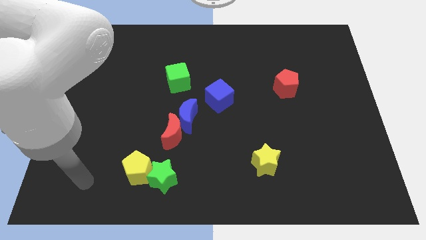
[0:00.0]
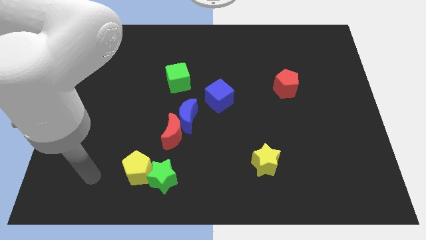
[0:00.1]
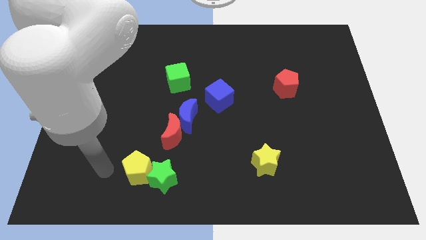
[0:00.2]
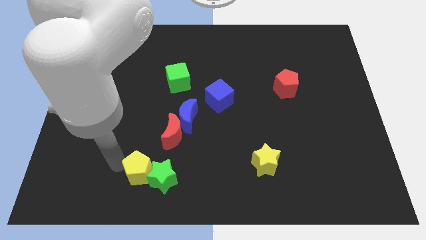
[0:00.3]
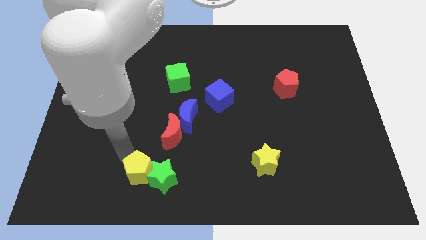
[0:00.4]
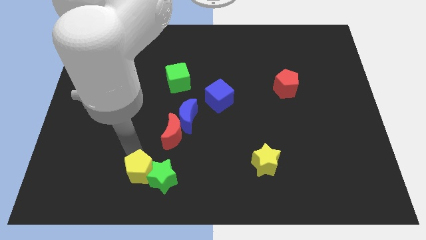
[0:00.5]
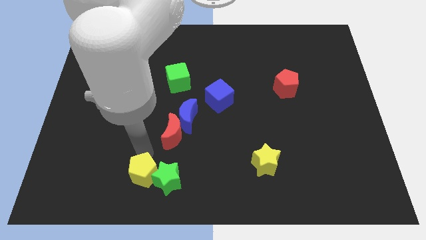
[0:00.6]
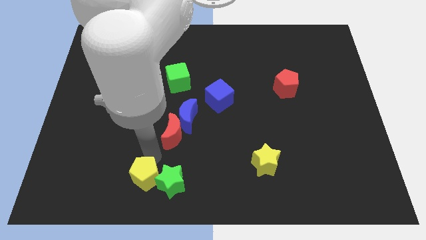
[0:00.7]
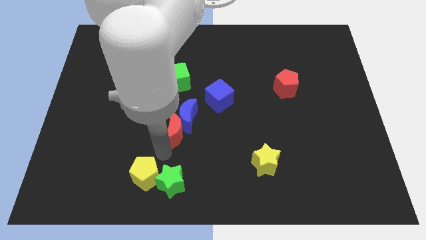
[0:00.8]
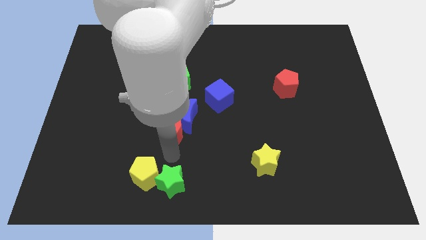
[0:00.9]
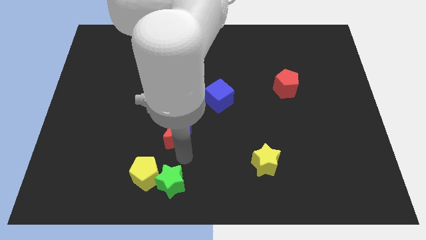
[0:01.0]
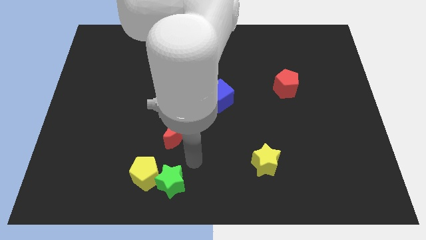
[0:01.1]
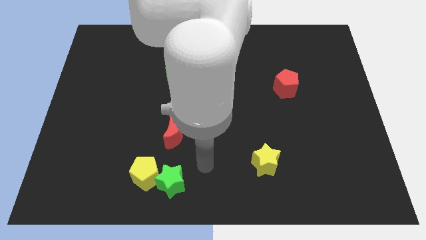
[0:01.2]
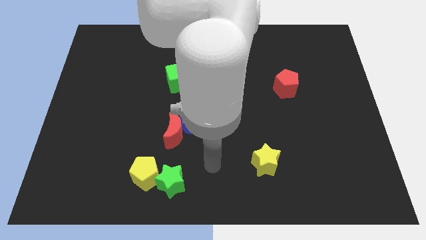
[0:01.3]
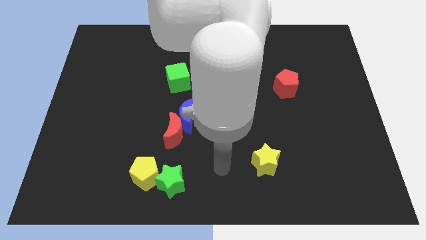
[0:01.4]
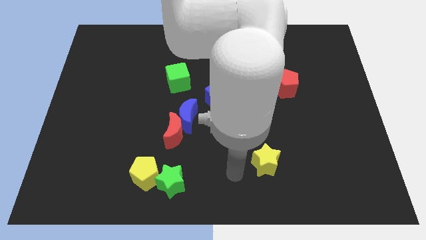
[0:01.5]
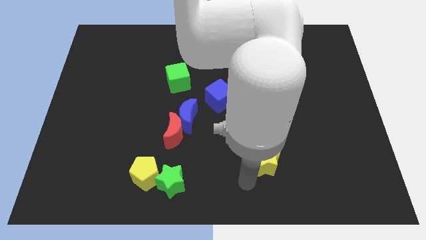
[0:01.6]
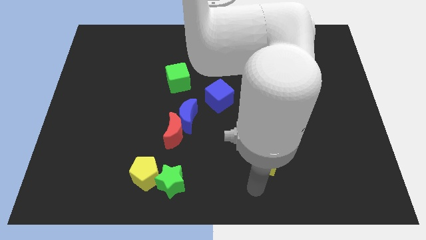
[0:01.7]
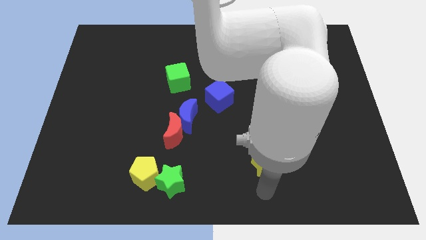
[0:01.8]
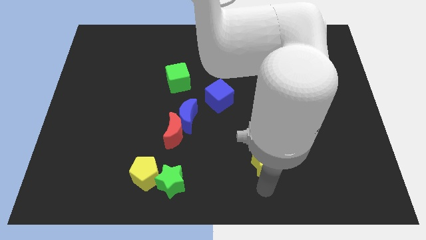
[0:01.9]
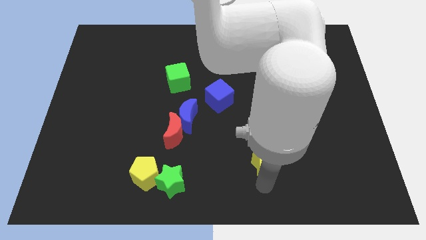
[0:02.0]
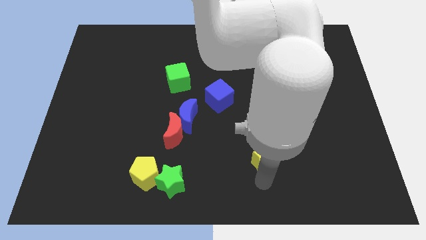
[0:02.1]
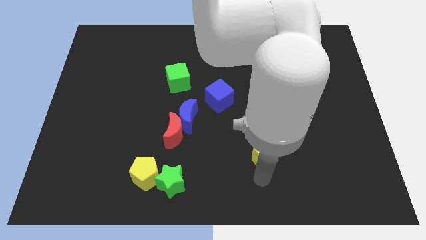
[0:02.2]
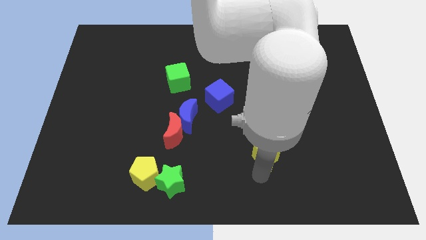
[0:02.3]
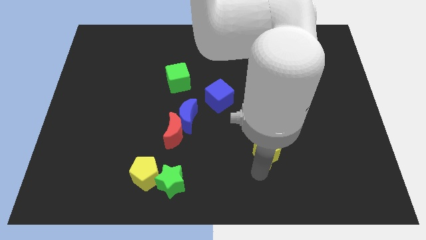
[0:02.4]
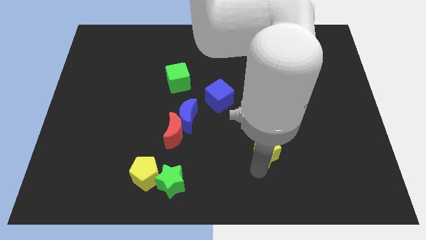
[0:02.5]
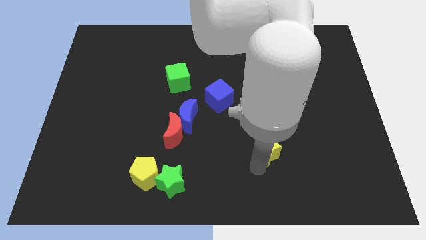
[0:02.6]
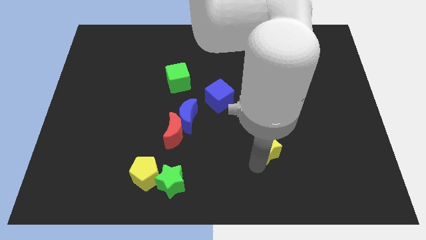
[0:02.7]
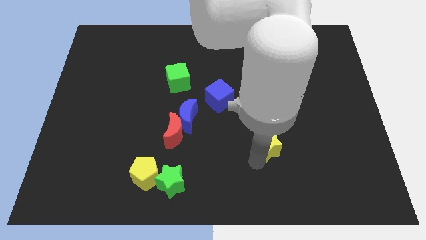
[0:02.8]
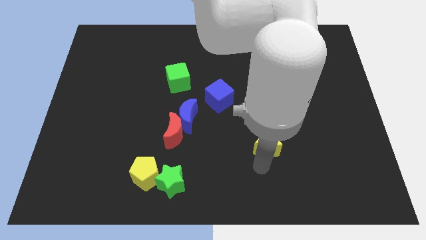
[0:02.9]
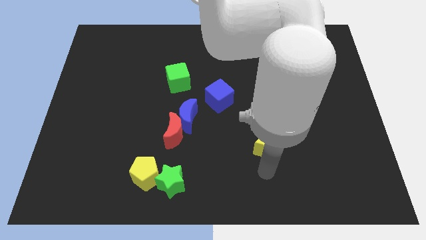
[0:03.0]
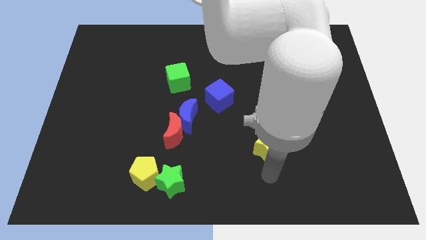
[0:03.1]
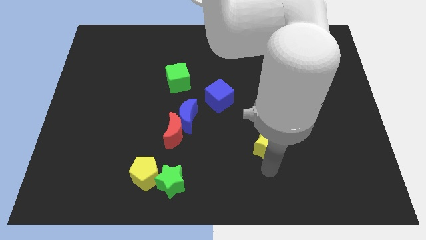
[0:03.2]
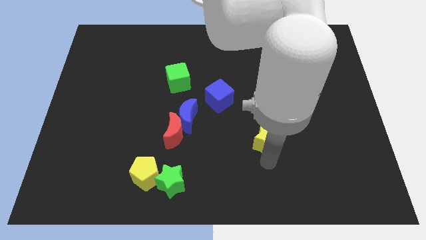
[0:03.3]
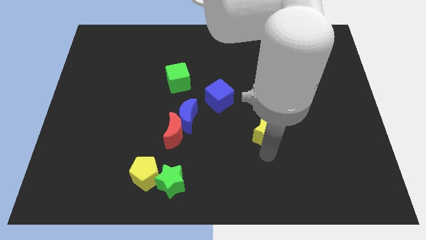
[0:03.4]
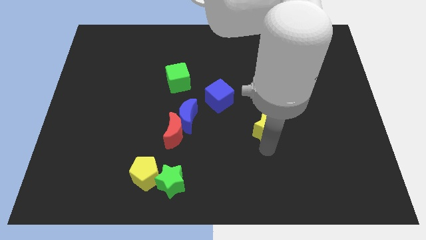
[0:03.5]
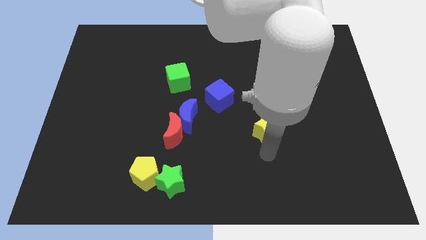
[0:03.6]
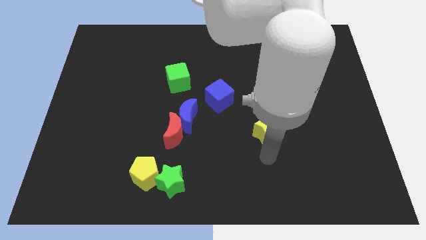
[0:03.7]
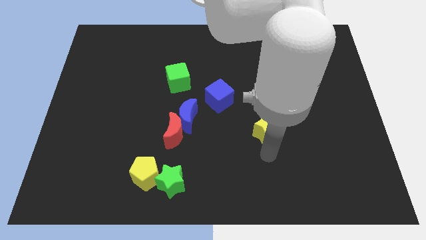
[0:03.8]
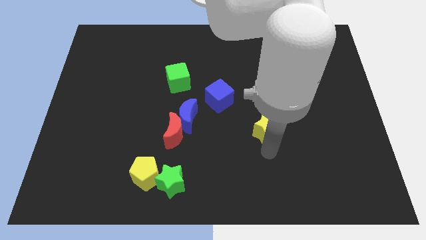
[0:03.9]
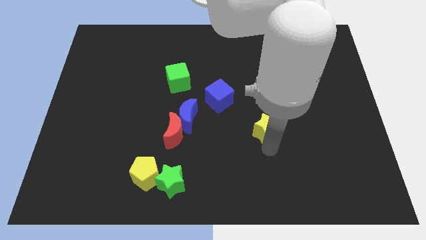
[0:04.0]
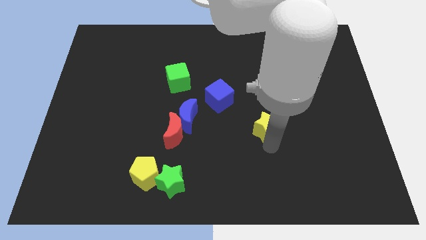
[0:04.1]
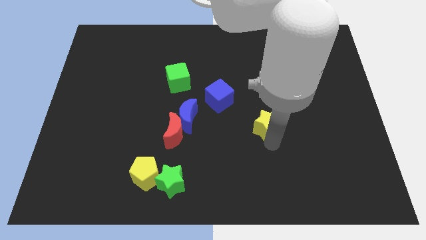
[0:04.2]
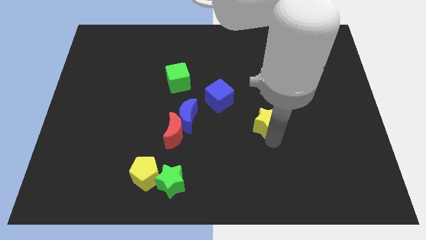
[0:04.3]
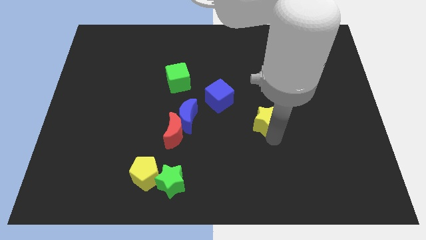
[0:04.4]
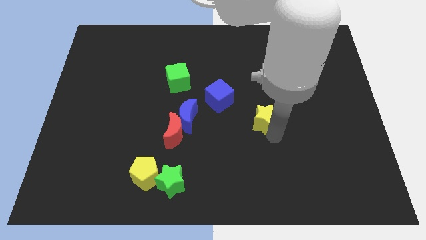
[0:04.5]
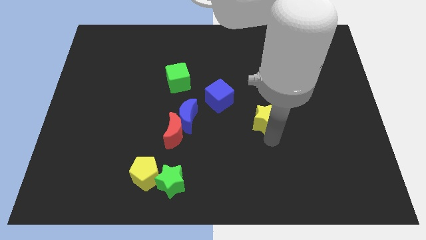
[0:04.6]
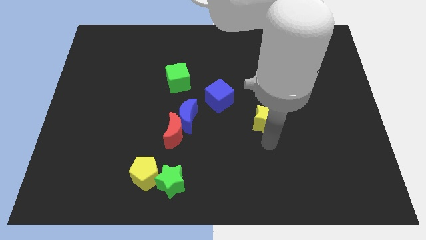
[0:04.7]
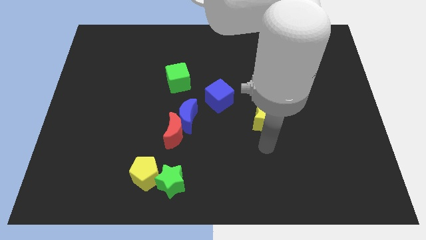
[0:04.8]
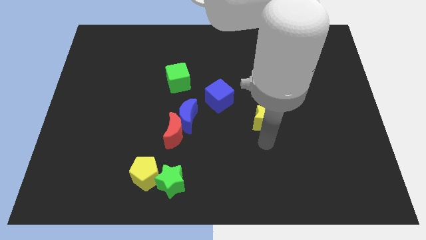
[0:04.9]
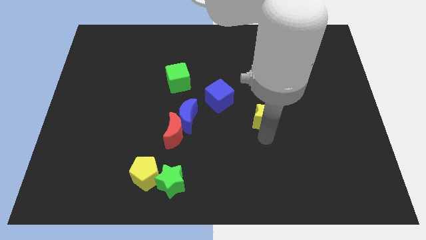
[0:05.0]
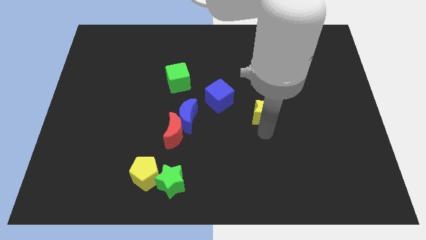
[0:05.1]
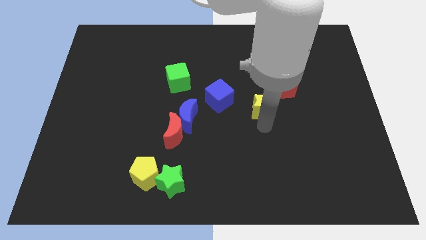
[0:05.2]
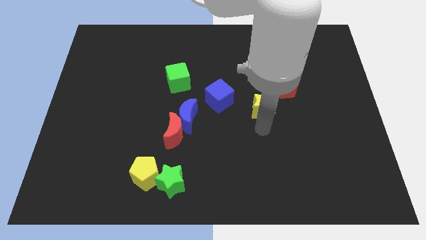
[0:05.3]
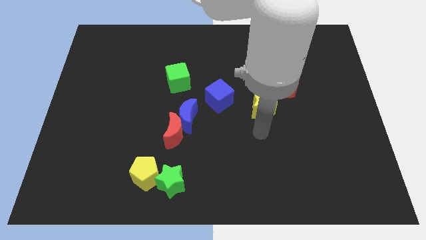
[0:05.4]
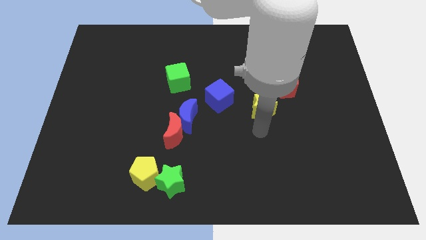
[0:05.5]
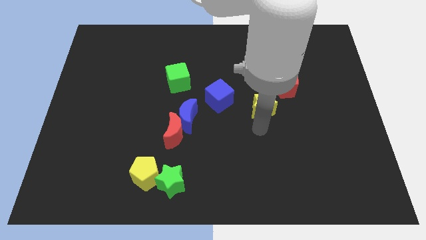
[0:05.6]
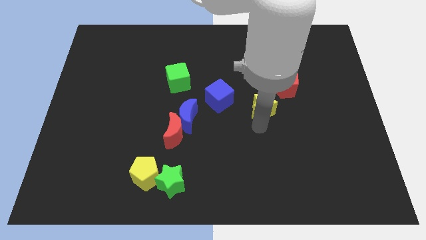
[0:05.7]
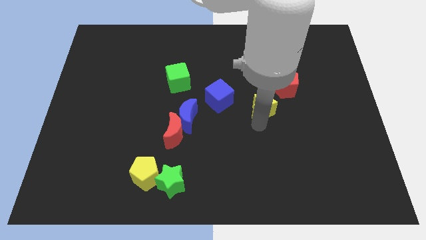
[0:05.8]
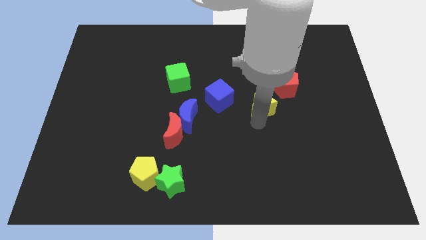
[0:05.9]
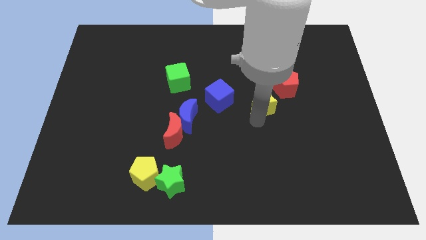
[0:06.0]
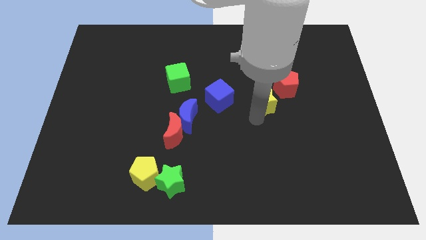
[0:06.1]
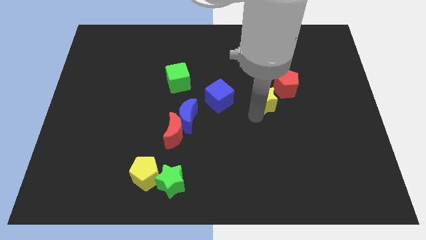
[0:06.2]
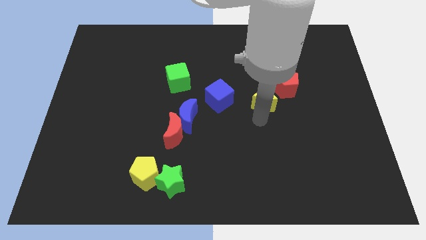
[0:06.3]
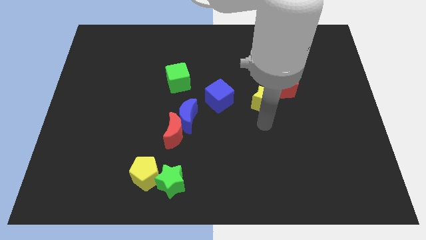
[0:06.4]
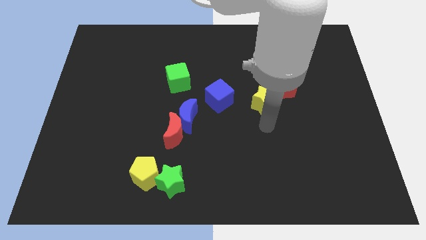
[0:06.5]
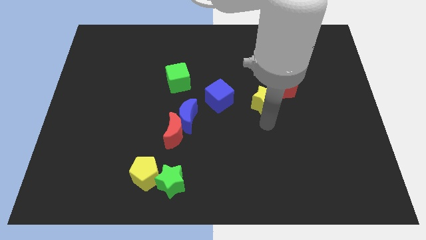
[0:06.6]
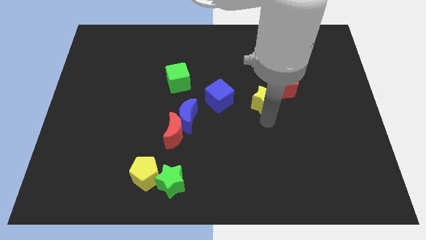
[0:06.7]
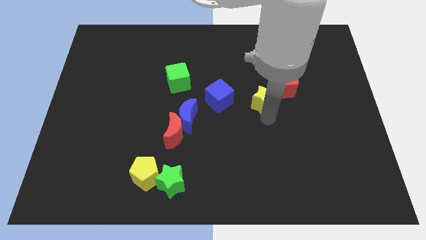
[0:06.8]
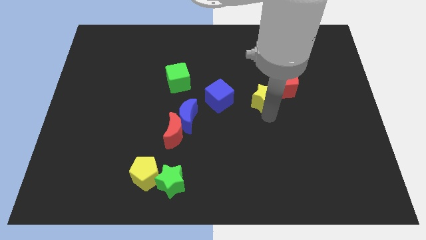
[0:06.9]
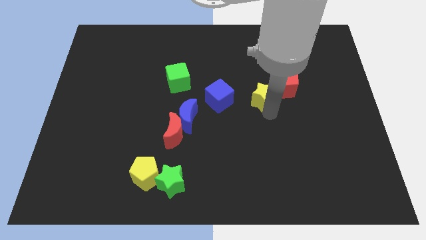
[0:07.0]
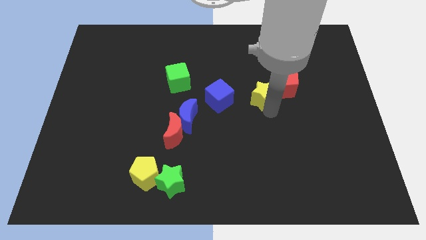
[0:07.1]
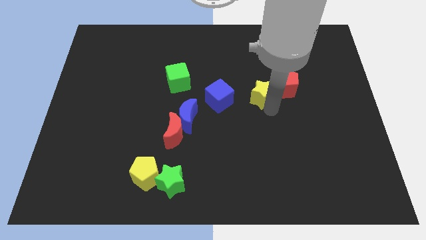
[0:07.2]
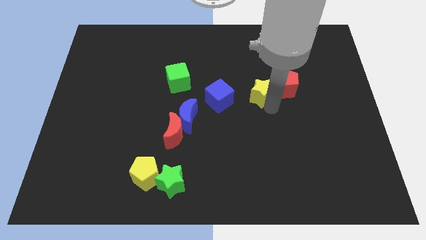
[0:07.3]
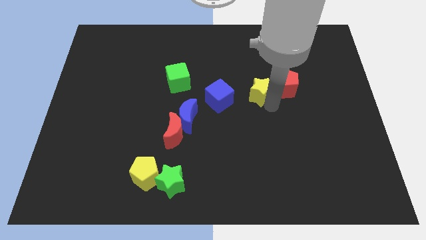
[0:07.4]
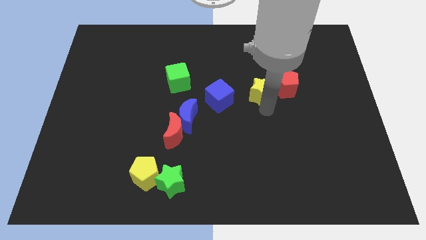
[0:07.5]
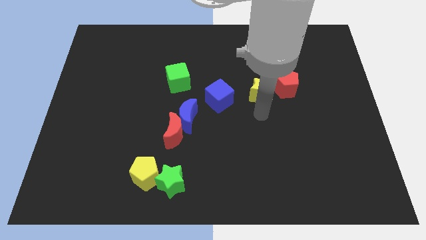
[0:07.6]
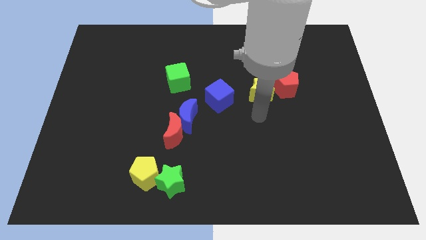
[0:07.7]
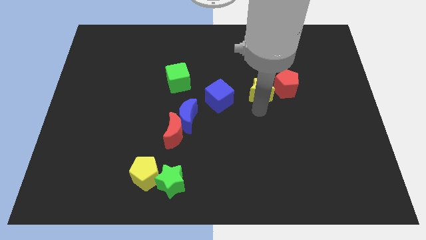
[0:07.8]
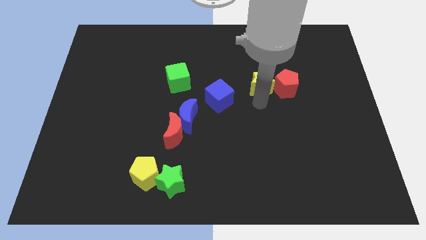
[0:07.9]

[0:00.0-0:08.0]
push the yellow star diagonally up and to the left of the red pentagon
